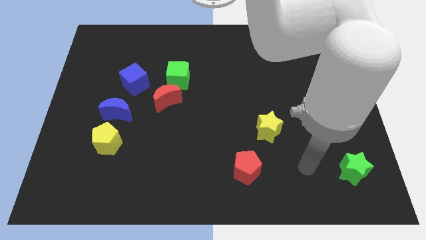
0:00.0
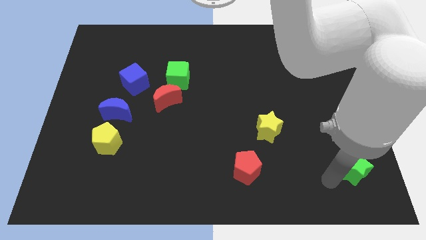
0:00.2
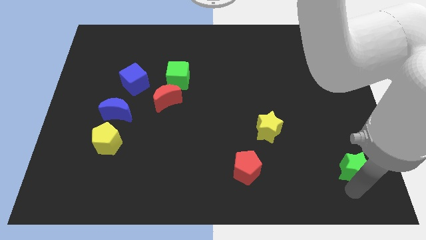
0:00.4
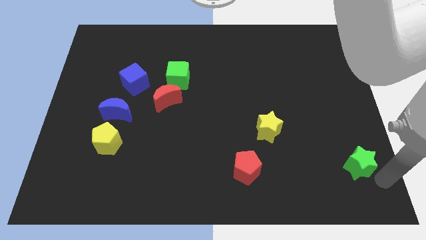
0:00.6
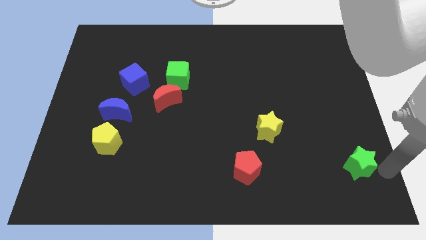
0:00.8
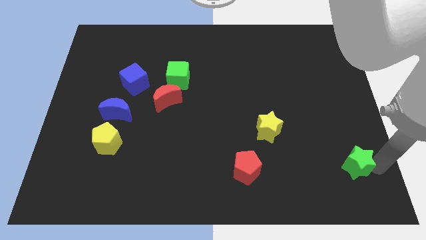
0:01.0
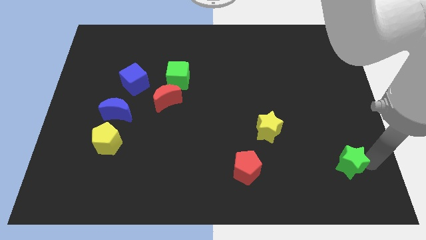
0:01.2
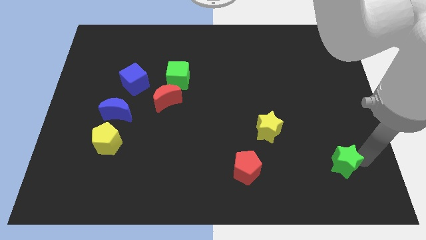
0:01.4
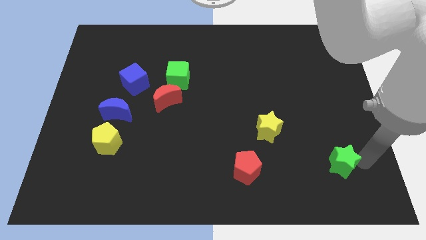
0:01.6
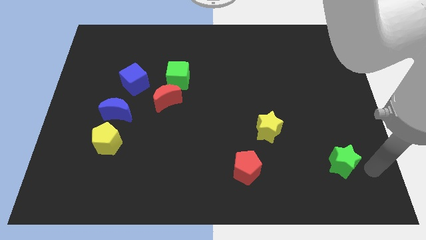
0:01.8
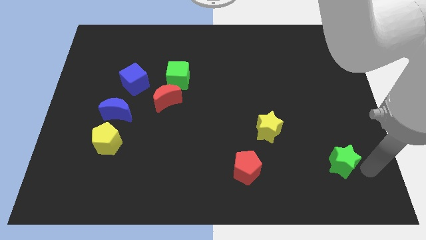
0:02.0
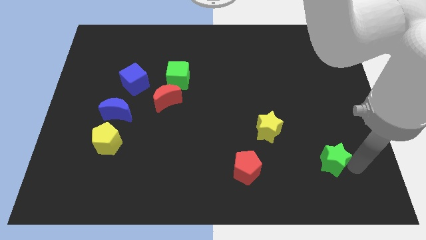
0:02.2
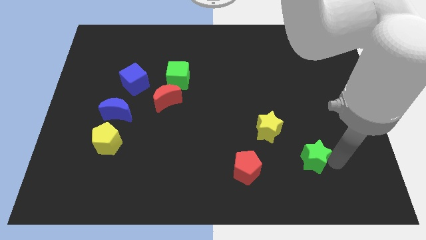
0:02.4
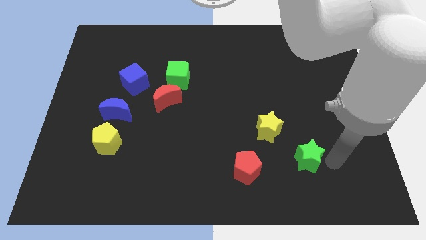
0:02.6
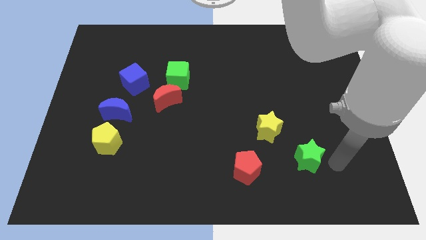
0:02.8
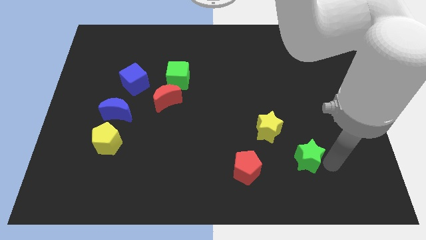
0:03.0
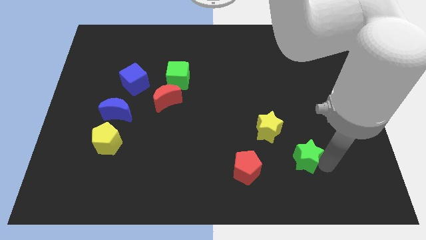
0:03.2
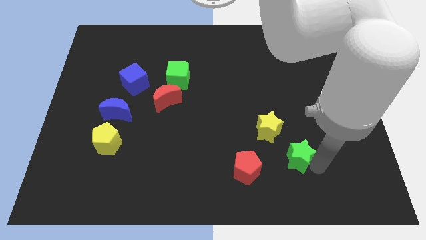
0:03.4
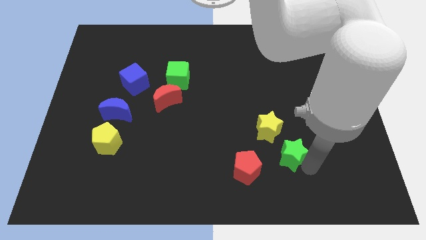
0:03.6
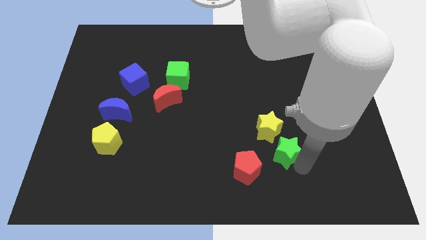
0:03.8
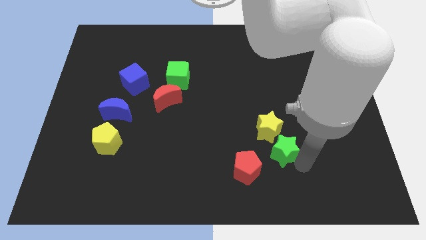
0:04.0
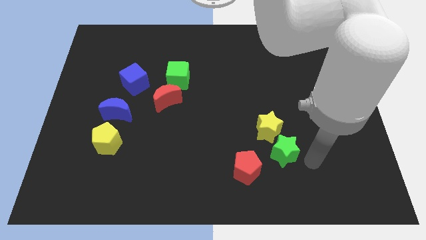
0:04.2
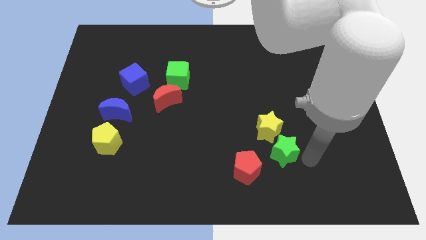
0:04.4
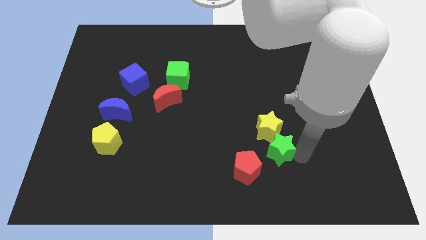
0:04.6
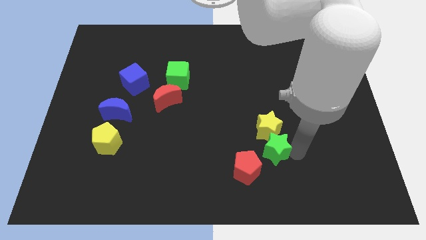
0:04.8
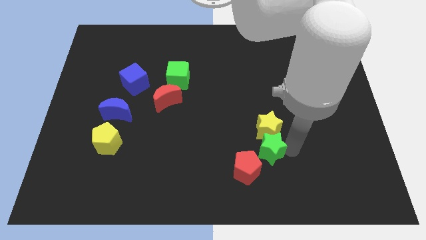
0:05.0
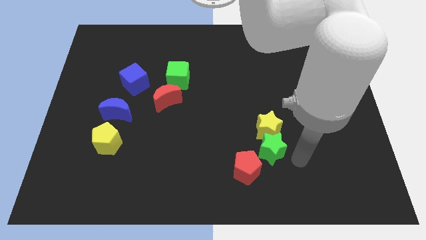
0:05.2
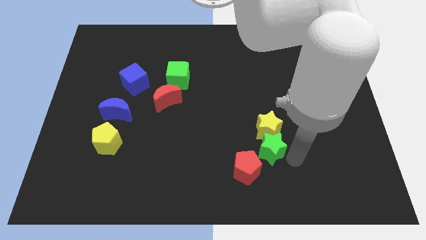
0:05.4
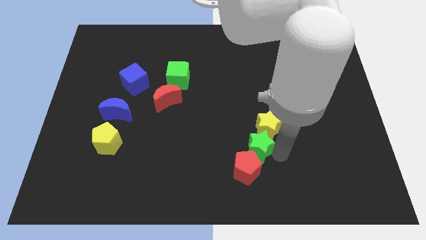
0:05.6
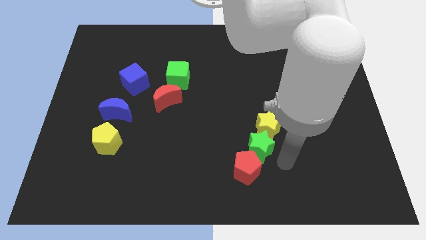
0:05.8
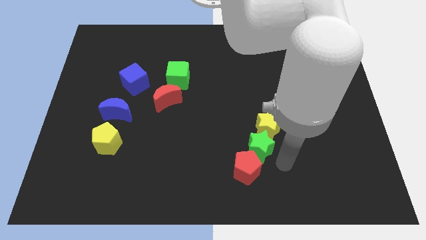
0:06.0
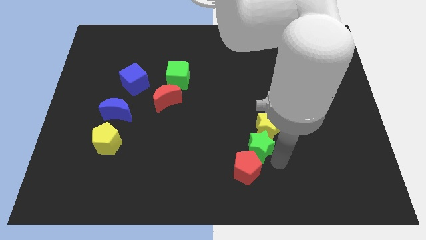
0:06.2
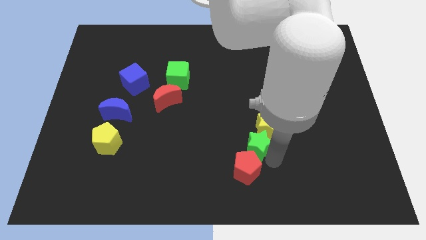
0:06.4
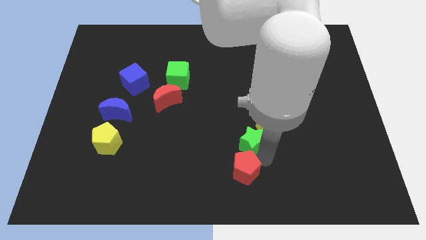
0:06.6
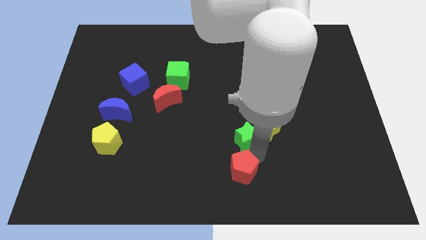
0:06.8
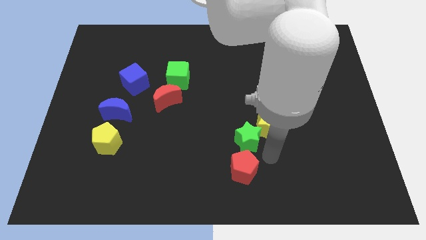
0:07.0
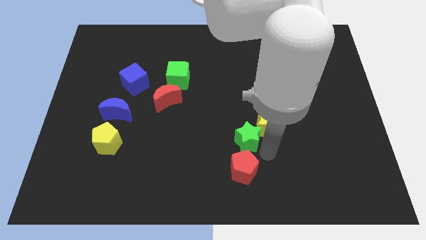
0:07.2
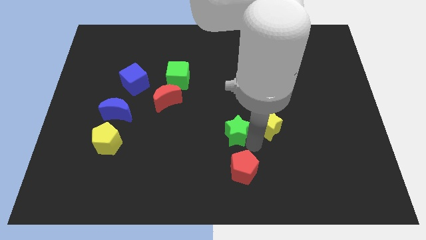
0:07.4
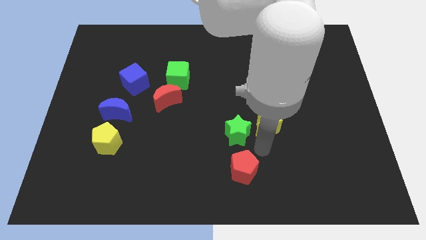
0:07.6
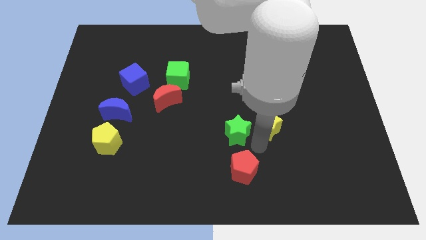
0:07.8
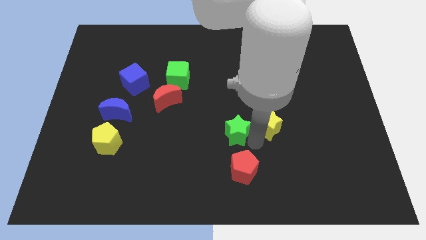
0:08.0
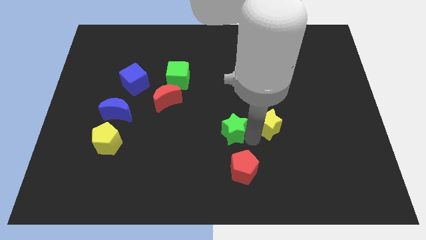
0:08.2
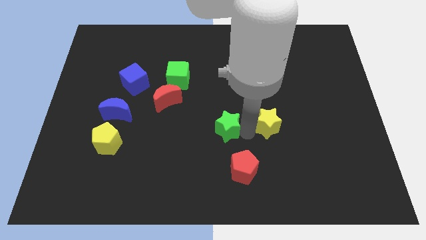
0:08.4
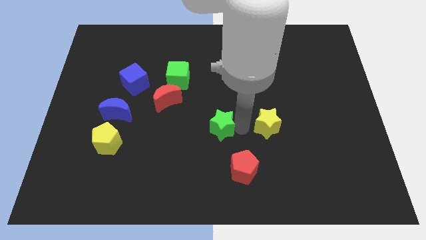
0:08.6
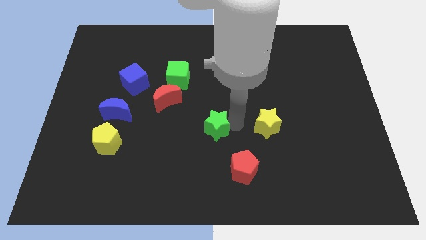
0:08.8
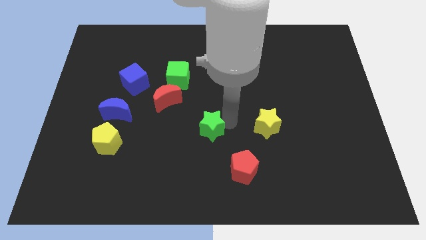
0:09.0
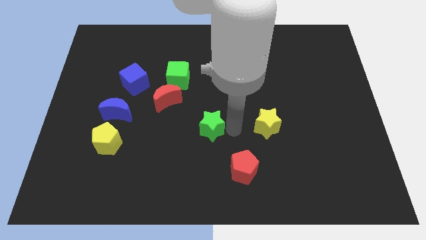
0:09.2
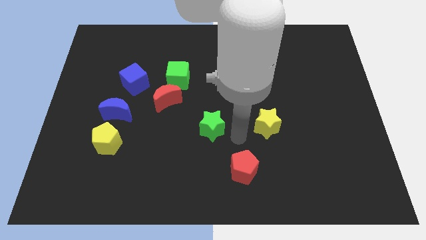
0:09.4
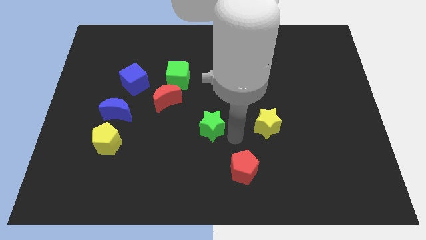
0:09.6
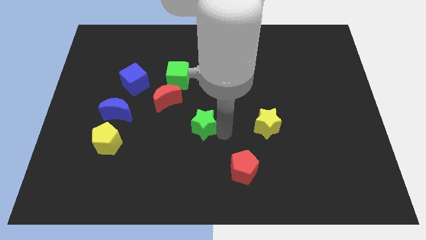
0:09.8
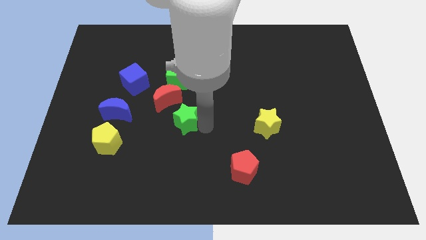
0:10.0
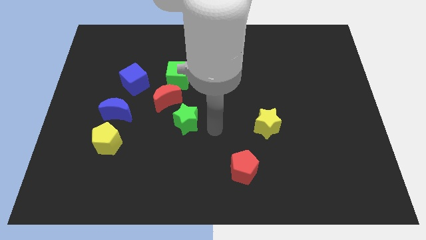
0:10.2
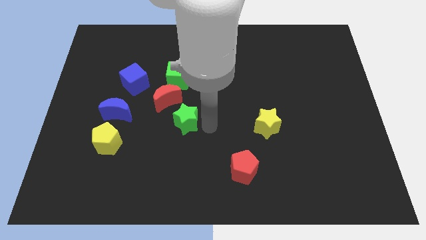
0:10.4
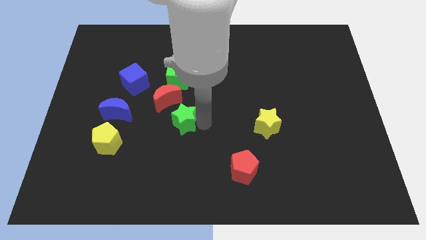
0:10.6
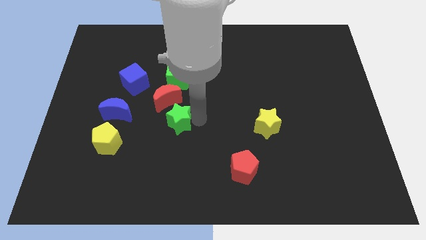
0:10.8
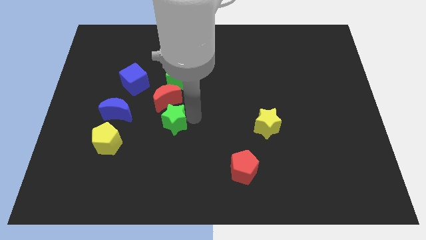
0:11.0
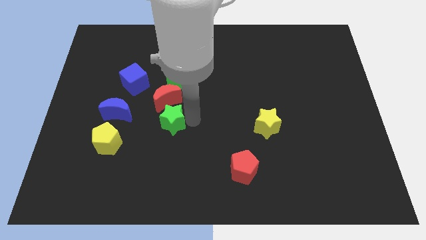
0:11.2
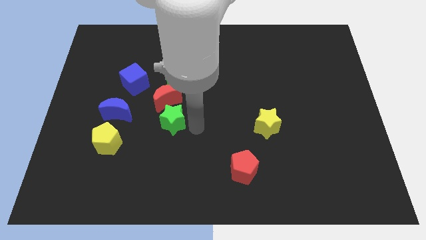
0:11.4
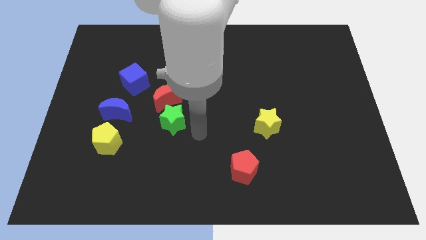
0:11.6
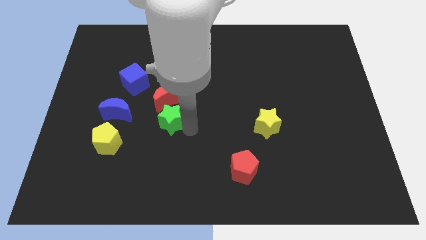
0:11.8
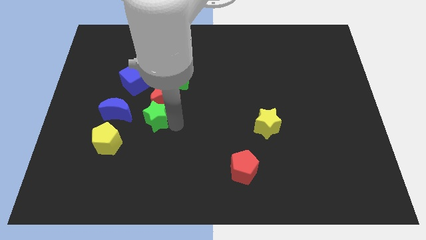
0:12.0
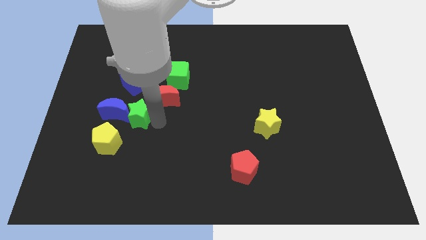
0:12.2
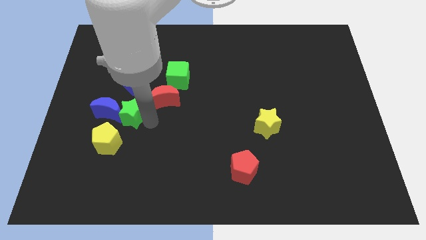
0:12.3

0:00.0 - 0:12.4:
push the green star above the yellow pentagon

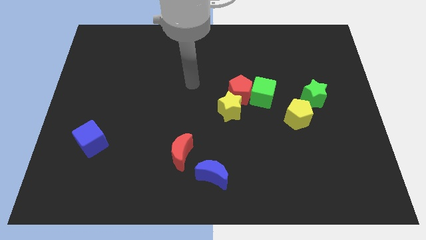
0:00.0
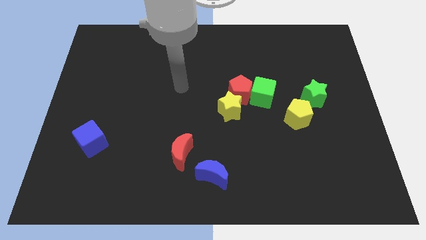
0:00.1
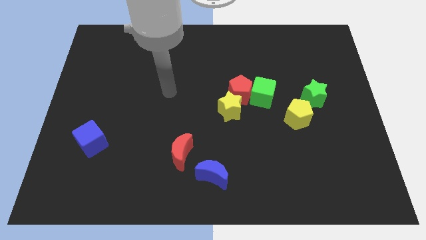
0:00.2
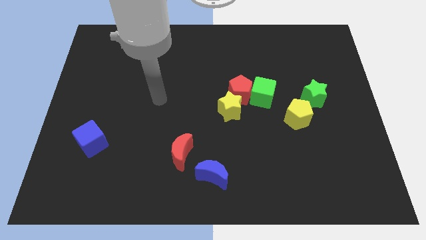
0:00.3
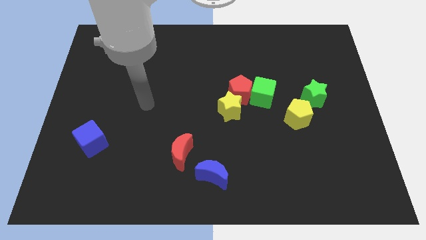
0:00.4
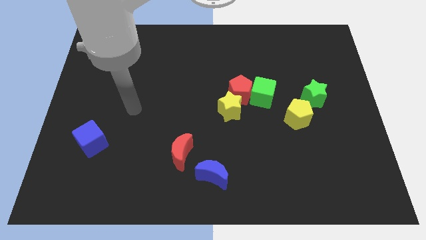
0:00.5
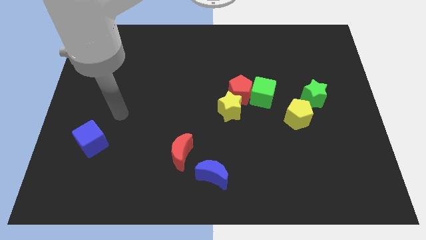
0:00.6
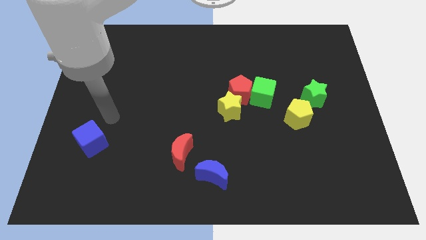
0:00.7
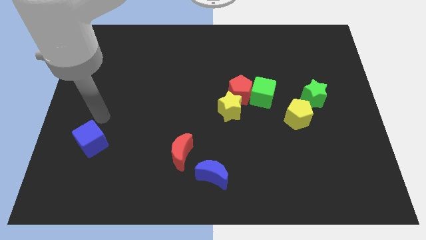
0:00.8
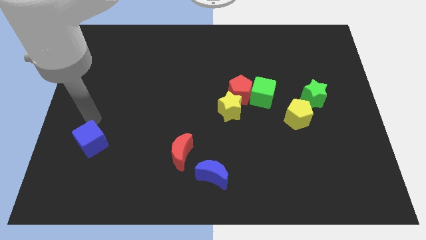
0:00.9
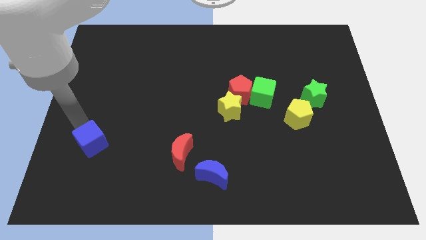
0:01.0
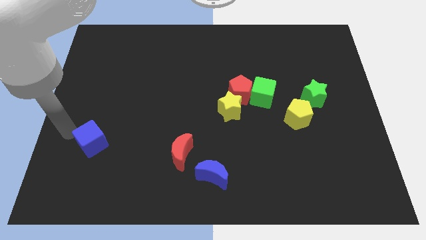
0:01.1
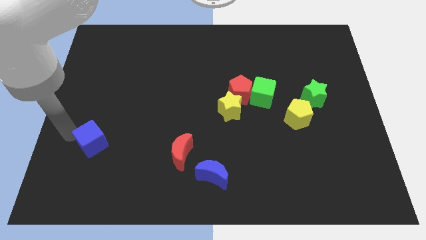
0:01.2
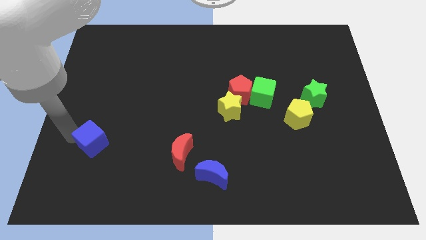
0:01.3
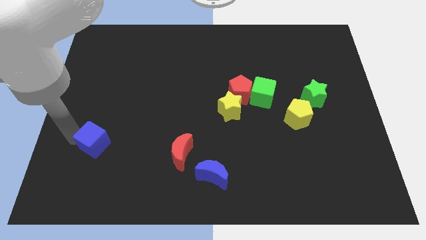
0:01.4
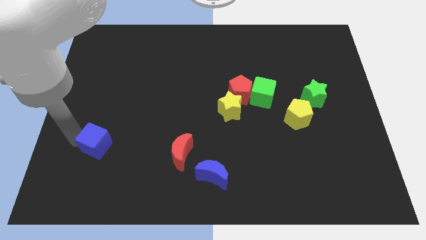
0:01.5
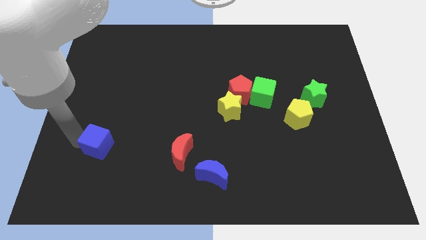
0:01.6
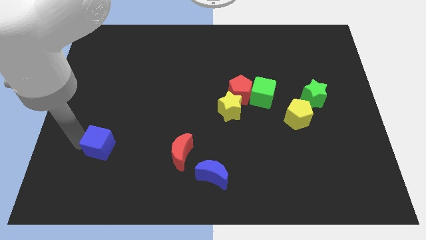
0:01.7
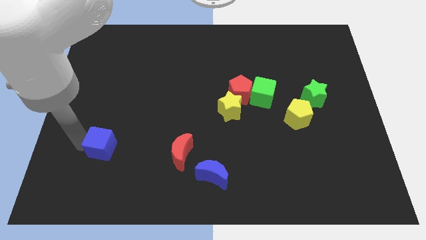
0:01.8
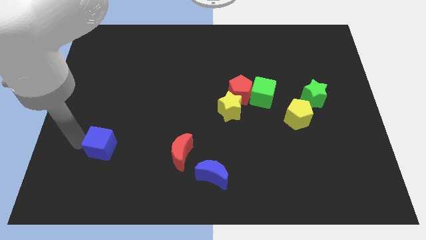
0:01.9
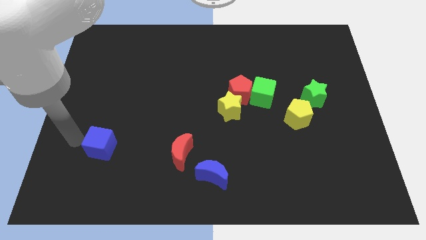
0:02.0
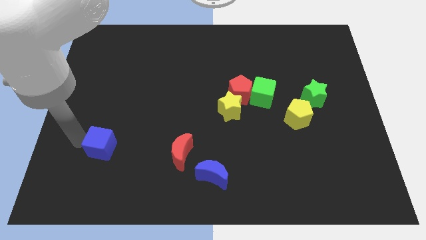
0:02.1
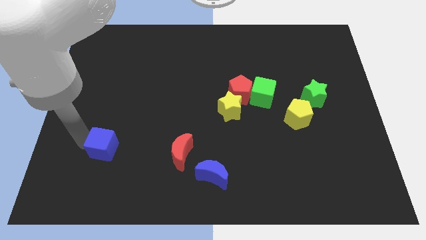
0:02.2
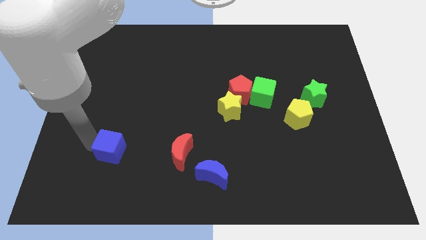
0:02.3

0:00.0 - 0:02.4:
push the blue cube left of the red moon
